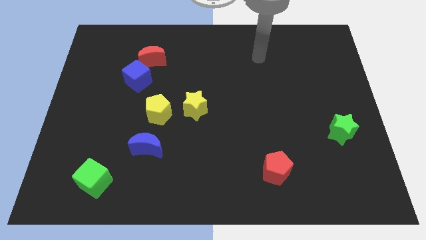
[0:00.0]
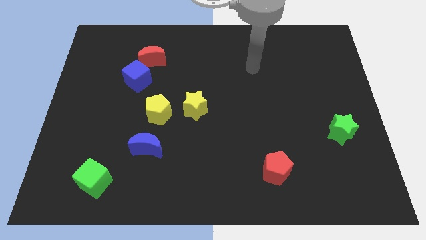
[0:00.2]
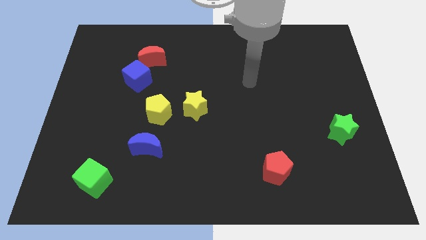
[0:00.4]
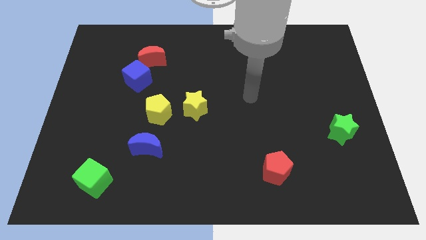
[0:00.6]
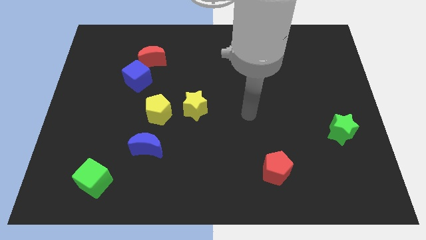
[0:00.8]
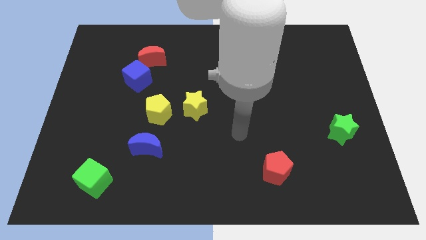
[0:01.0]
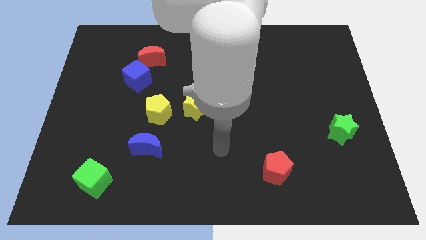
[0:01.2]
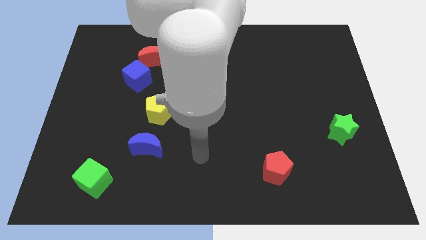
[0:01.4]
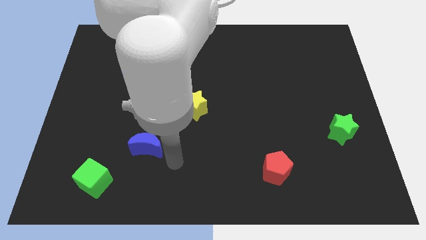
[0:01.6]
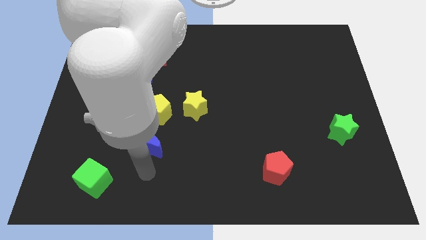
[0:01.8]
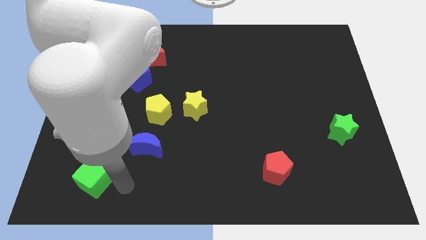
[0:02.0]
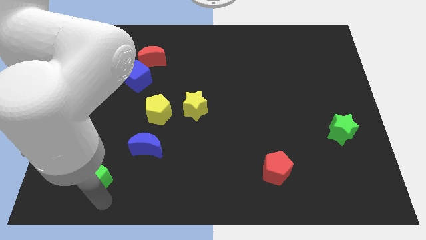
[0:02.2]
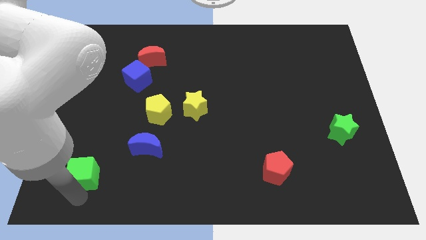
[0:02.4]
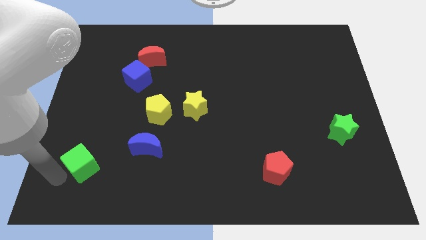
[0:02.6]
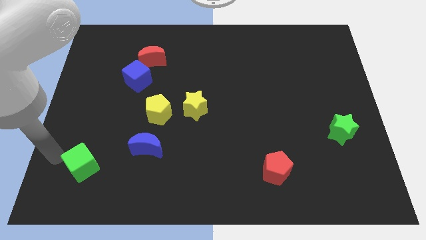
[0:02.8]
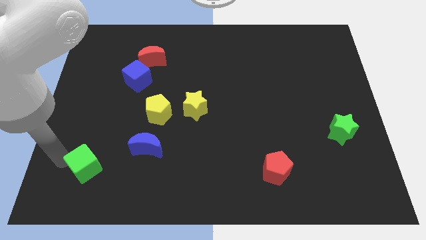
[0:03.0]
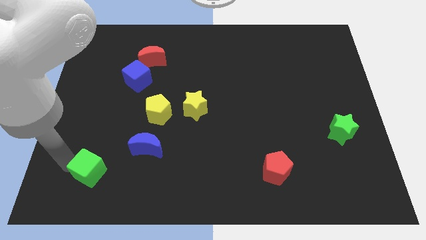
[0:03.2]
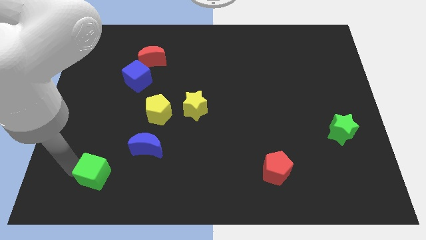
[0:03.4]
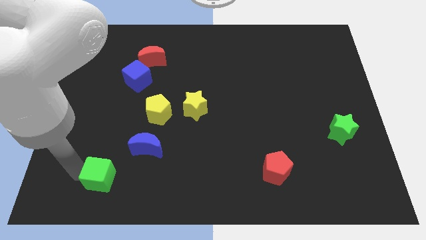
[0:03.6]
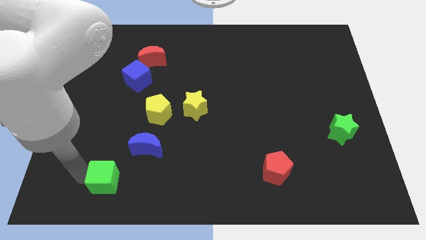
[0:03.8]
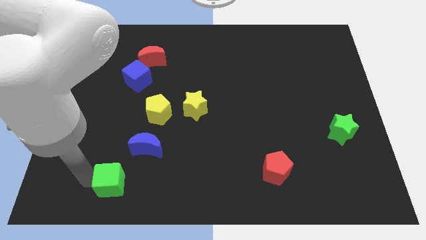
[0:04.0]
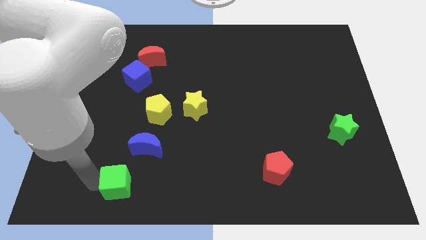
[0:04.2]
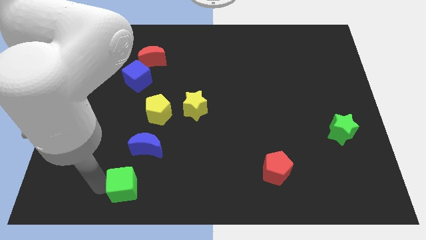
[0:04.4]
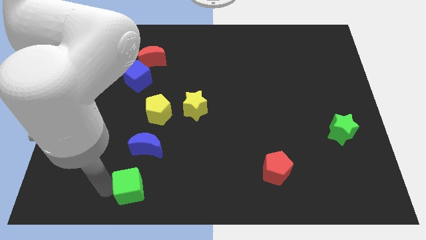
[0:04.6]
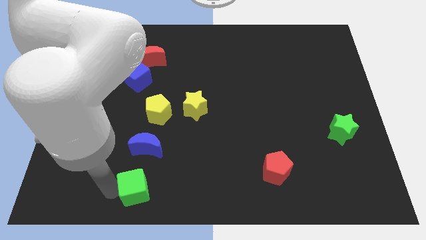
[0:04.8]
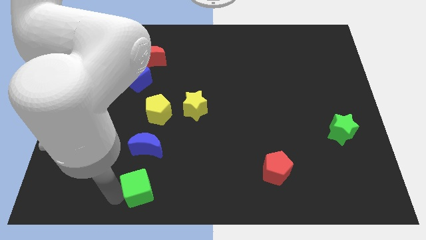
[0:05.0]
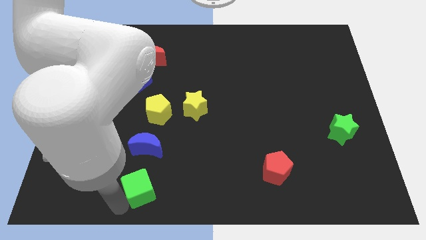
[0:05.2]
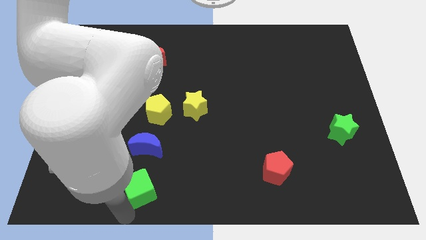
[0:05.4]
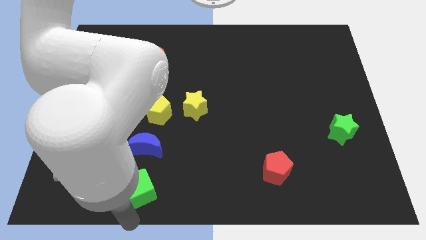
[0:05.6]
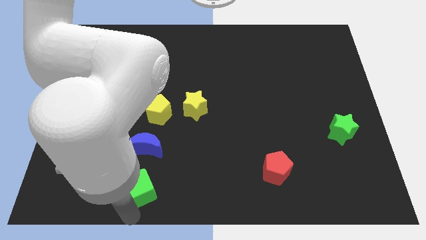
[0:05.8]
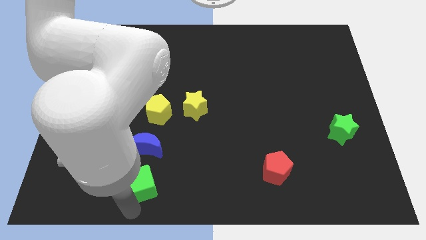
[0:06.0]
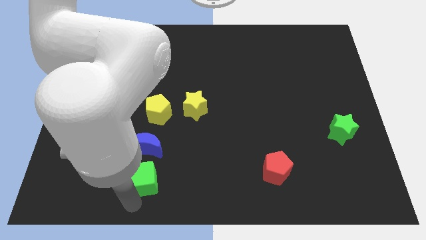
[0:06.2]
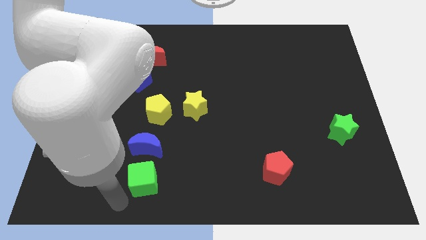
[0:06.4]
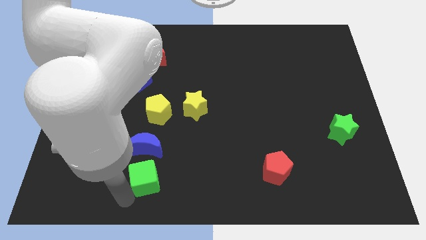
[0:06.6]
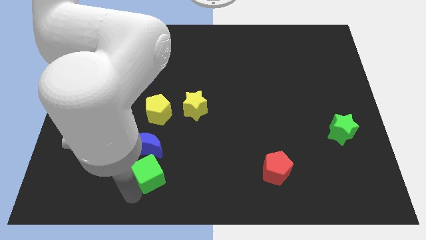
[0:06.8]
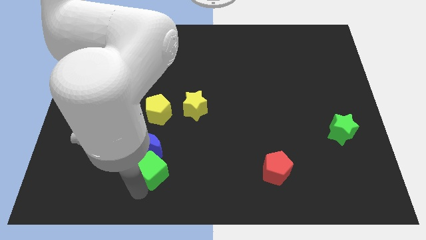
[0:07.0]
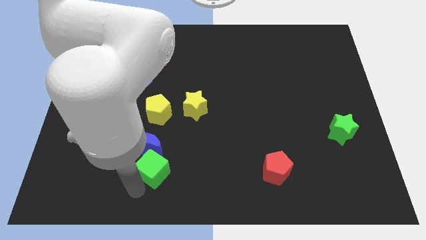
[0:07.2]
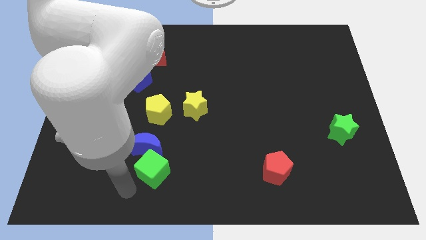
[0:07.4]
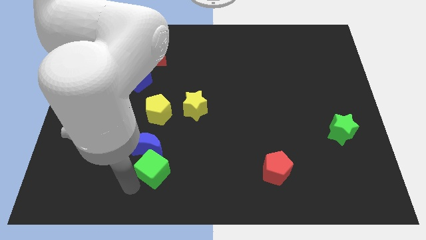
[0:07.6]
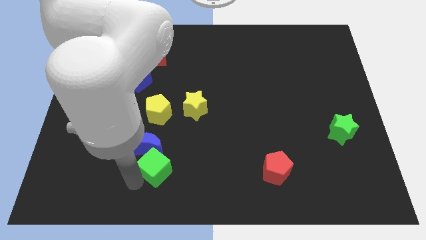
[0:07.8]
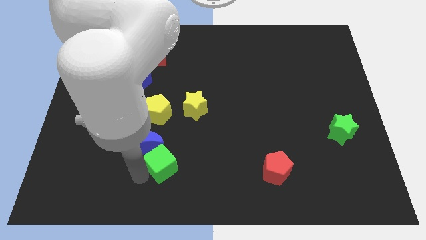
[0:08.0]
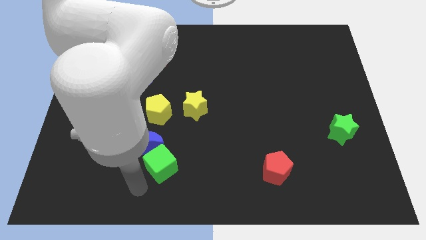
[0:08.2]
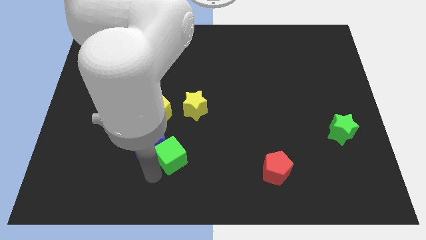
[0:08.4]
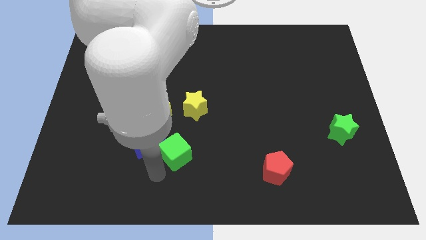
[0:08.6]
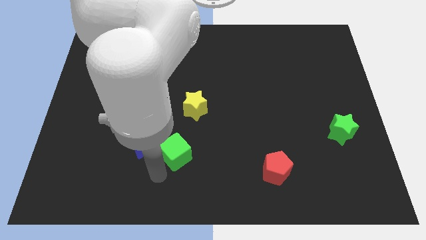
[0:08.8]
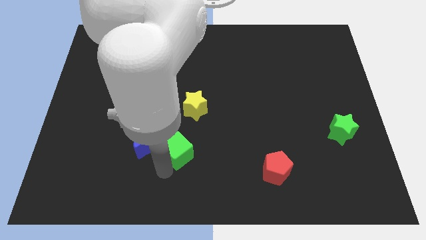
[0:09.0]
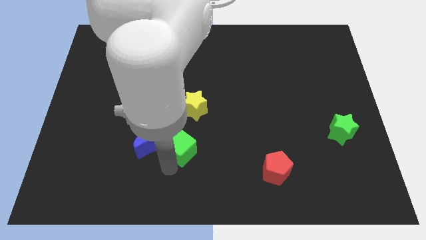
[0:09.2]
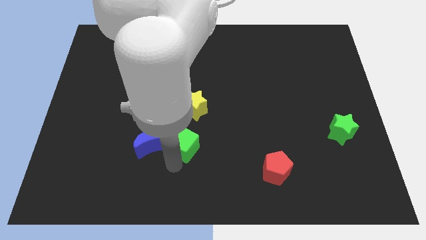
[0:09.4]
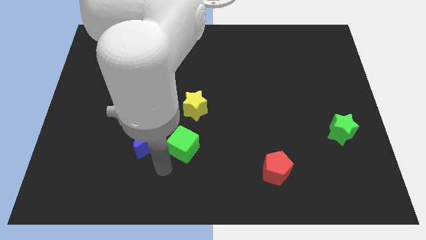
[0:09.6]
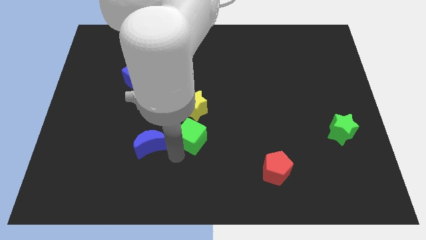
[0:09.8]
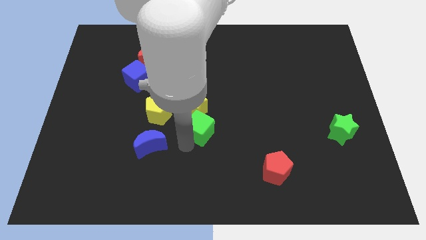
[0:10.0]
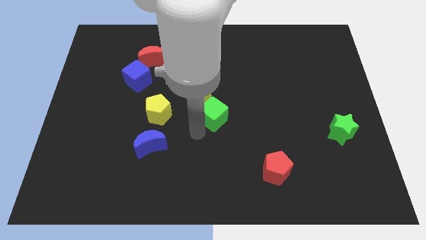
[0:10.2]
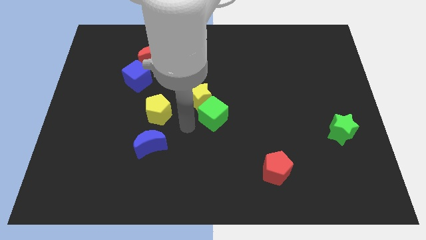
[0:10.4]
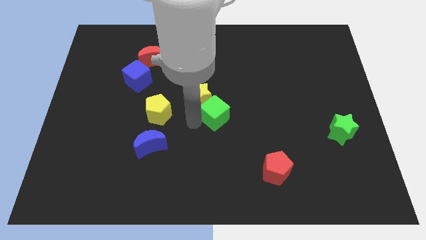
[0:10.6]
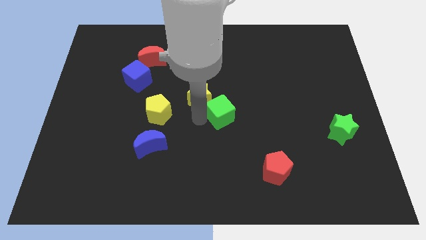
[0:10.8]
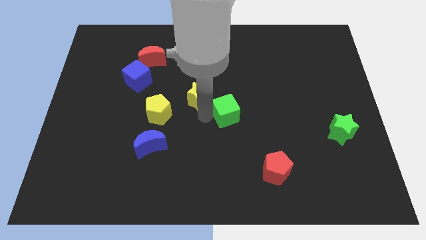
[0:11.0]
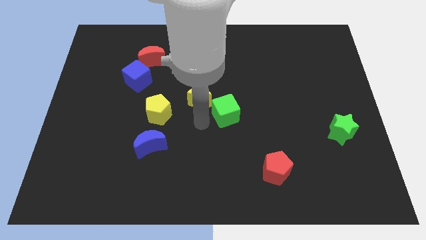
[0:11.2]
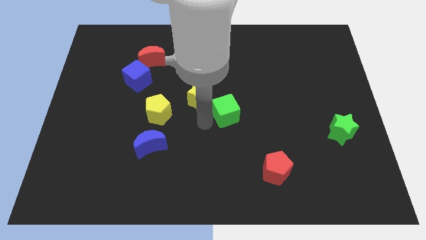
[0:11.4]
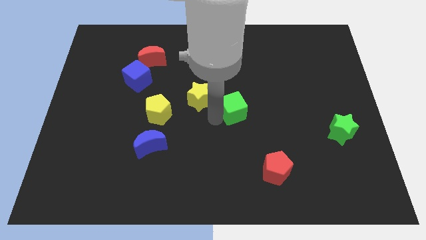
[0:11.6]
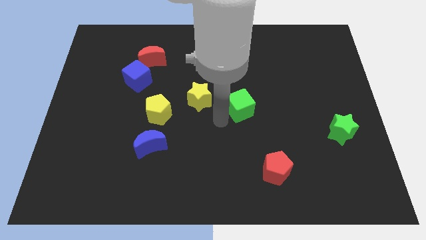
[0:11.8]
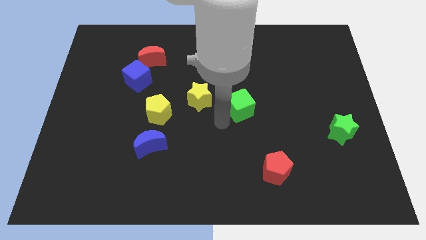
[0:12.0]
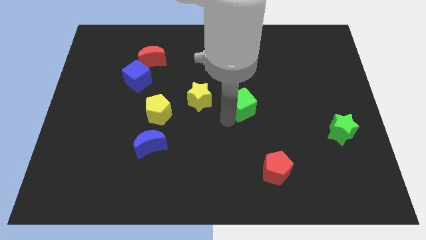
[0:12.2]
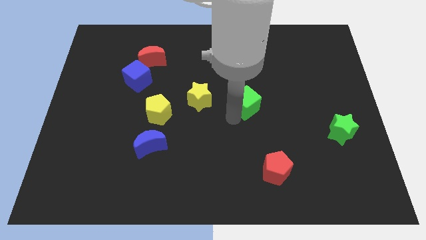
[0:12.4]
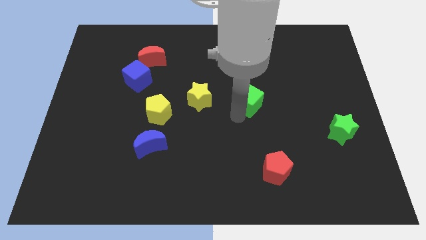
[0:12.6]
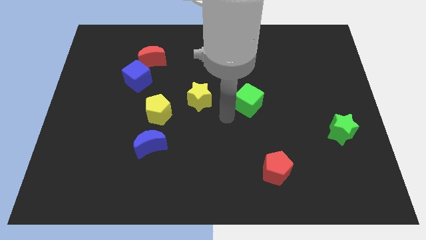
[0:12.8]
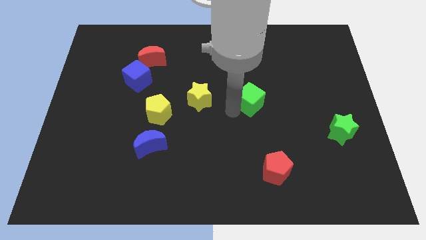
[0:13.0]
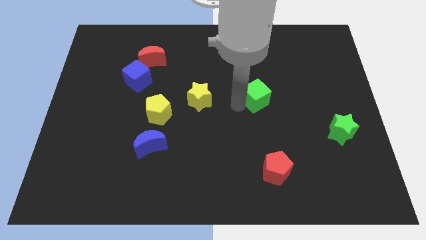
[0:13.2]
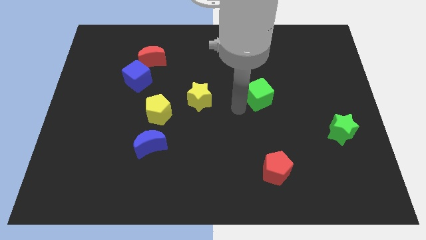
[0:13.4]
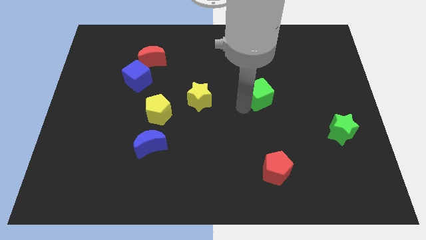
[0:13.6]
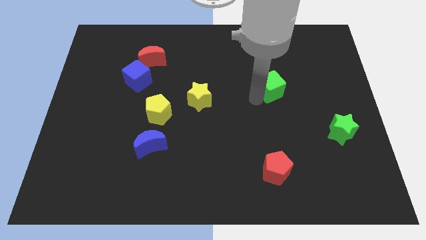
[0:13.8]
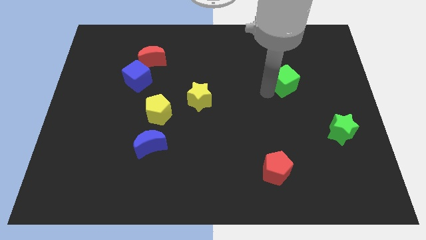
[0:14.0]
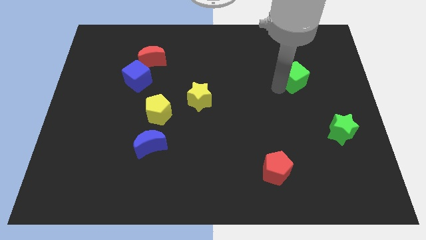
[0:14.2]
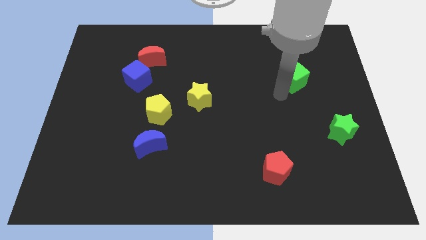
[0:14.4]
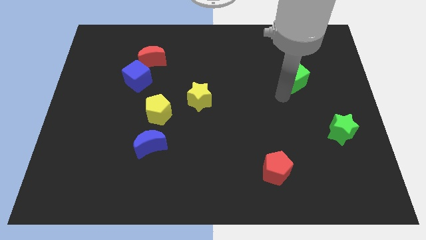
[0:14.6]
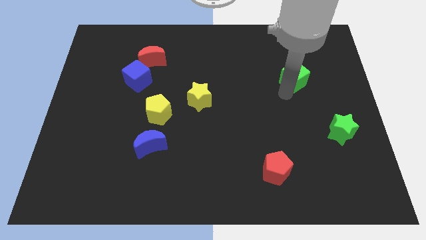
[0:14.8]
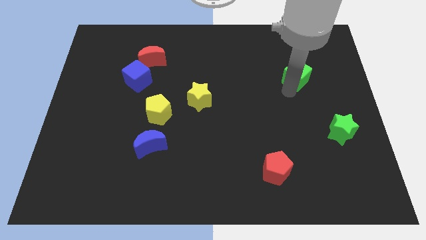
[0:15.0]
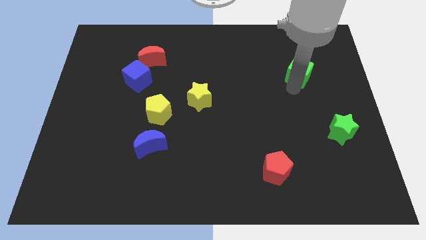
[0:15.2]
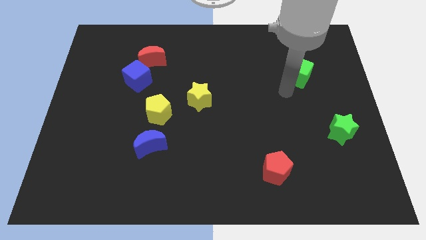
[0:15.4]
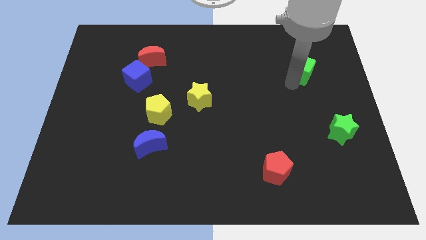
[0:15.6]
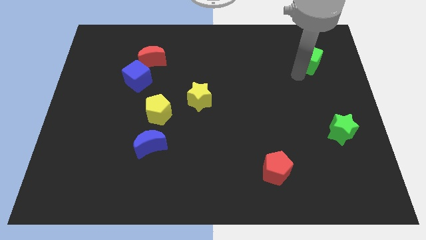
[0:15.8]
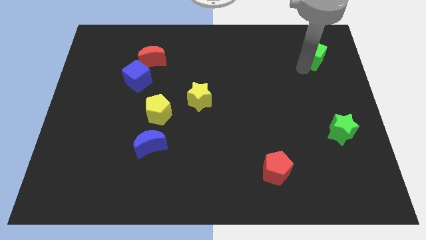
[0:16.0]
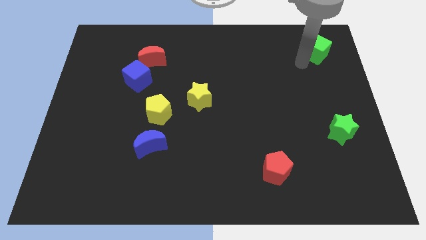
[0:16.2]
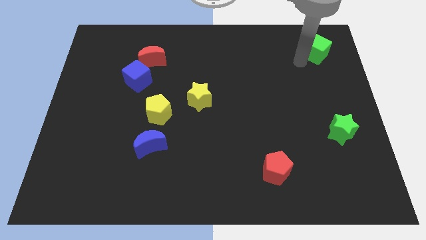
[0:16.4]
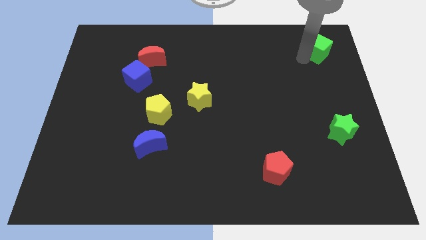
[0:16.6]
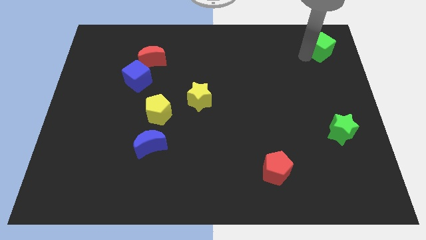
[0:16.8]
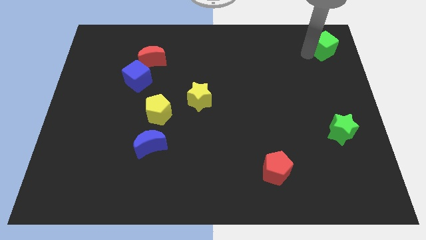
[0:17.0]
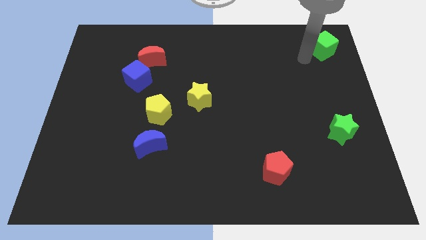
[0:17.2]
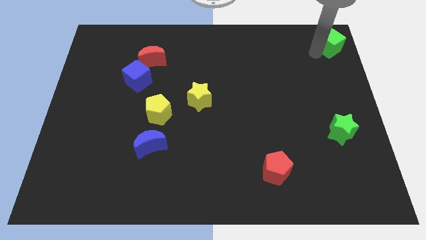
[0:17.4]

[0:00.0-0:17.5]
move the green cube to the upper right corner
